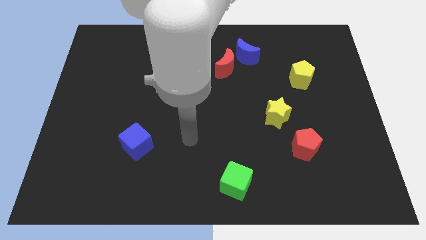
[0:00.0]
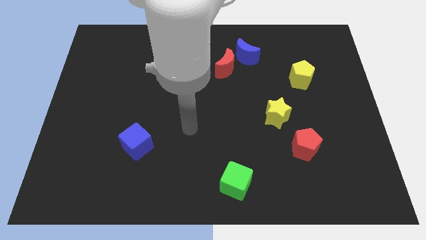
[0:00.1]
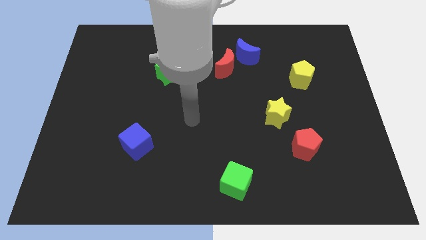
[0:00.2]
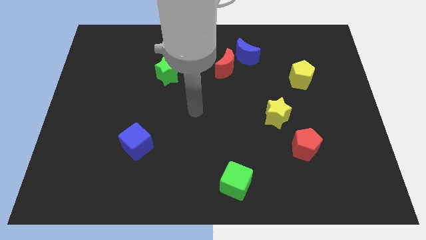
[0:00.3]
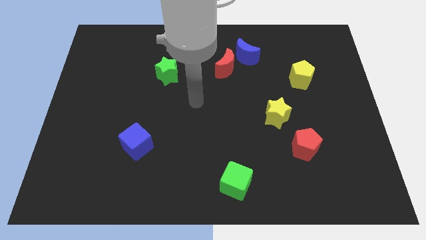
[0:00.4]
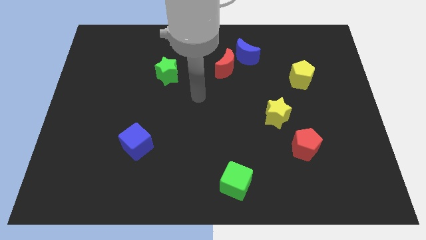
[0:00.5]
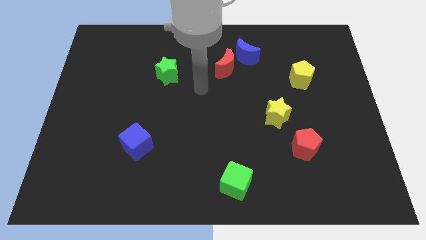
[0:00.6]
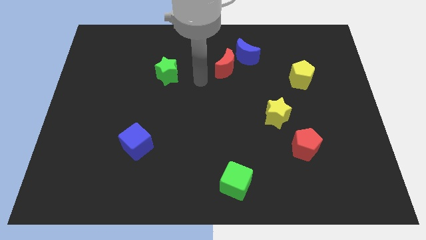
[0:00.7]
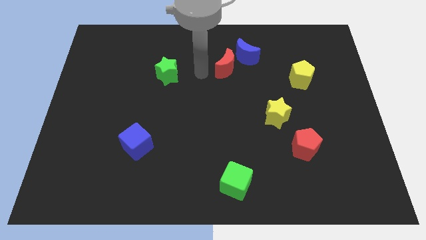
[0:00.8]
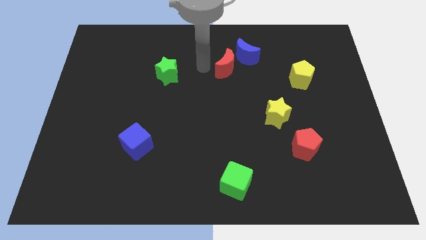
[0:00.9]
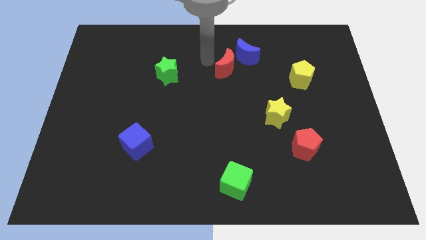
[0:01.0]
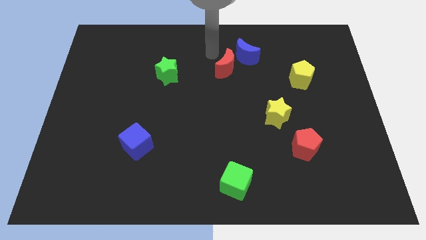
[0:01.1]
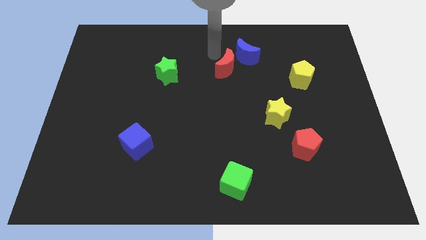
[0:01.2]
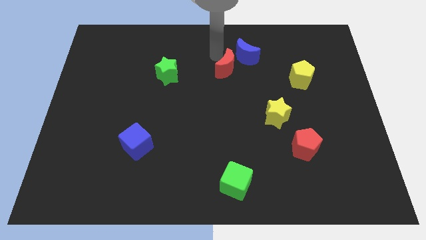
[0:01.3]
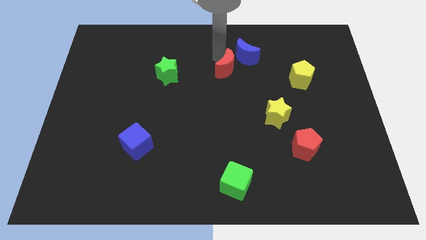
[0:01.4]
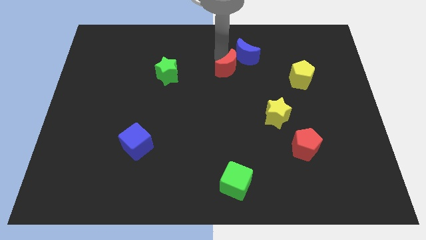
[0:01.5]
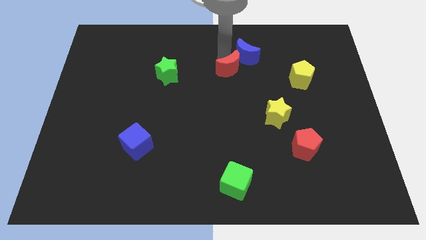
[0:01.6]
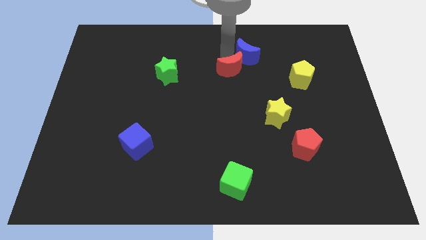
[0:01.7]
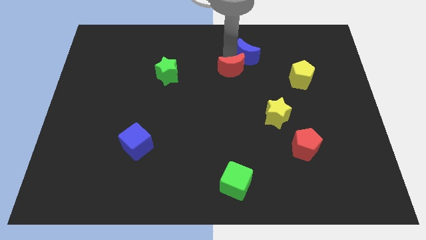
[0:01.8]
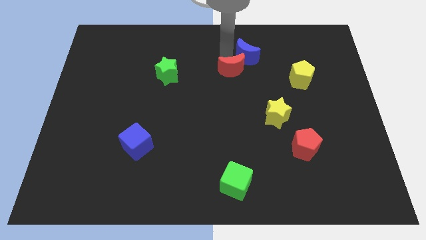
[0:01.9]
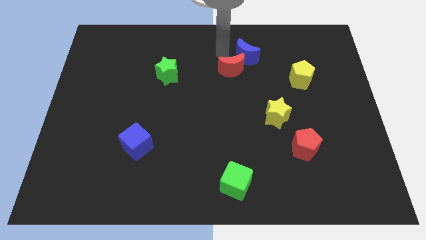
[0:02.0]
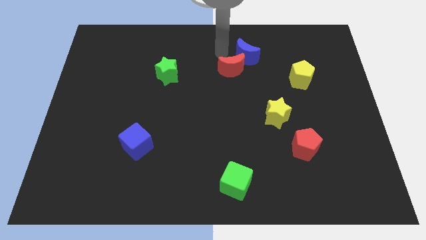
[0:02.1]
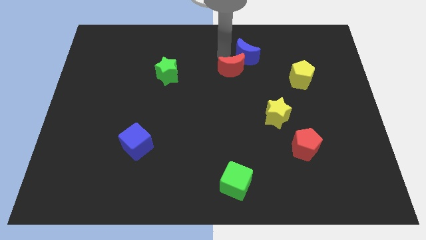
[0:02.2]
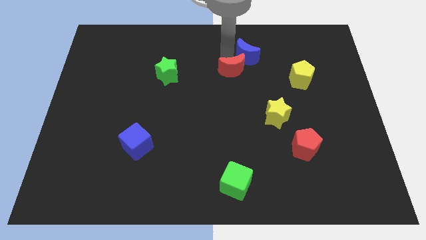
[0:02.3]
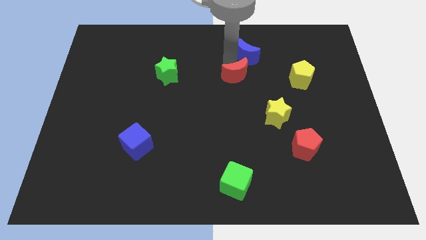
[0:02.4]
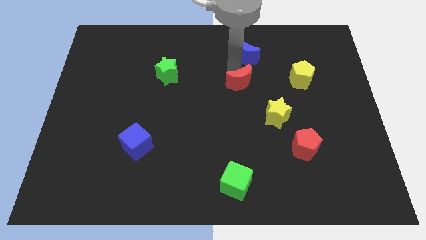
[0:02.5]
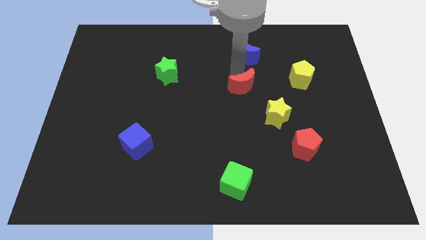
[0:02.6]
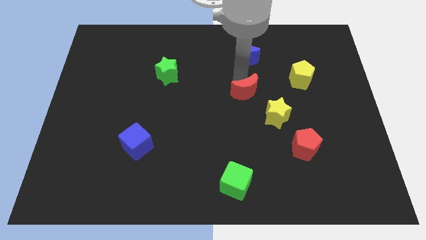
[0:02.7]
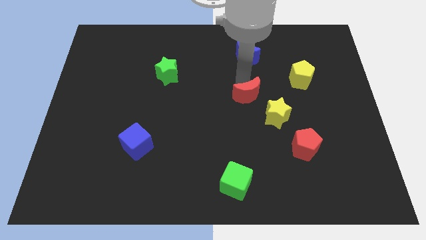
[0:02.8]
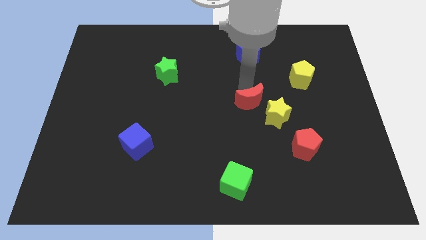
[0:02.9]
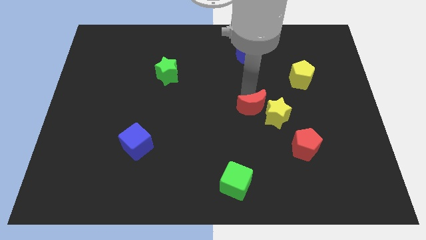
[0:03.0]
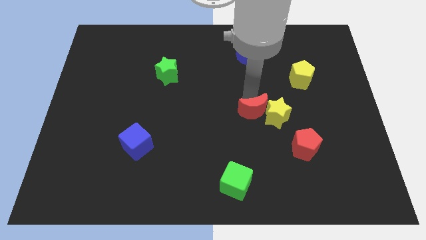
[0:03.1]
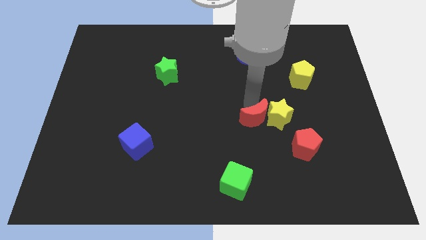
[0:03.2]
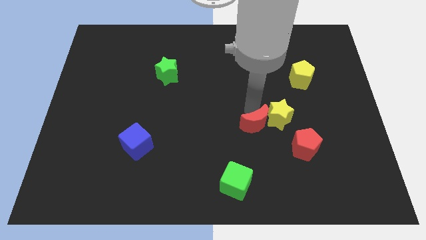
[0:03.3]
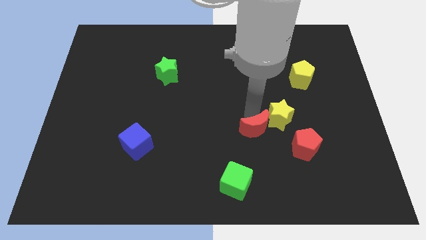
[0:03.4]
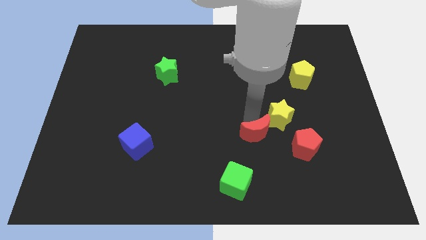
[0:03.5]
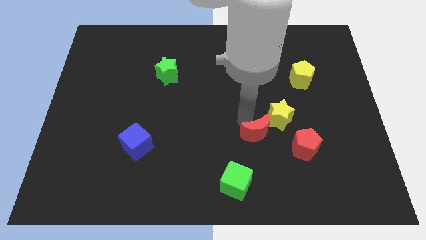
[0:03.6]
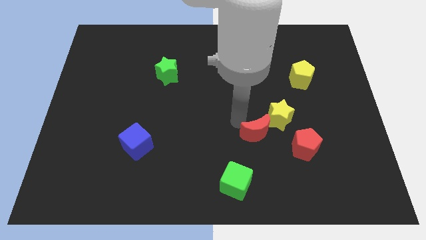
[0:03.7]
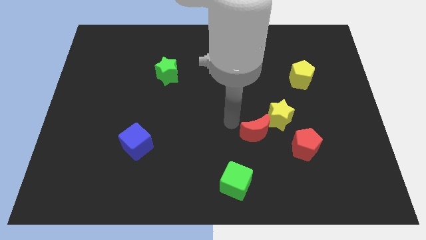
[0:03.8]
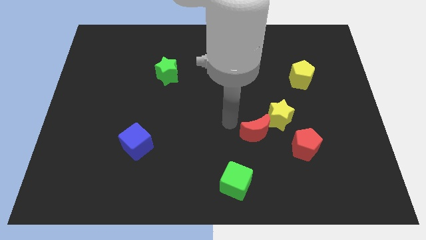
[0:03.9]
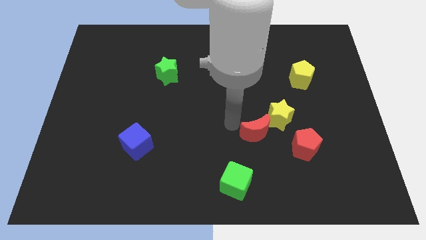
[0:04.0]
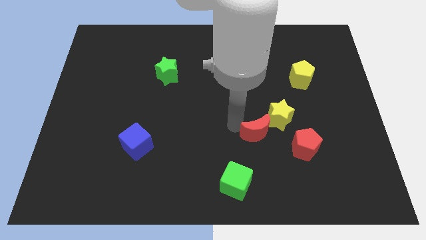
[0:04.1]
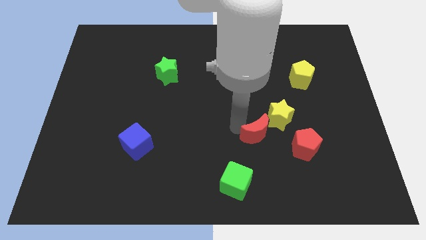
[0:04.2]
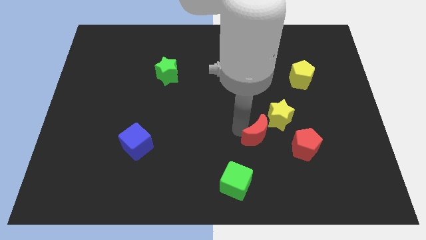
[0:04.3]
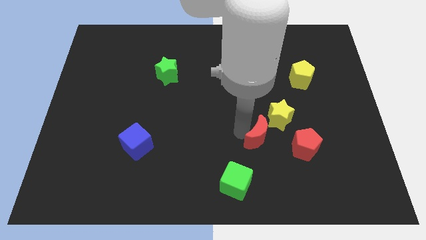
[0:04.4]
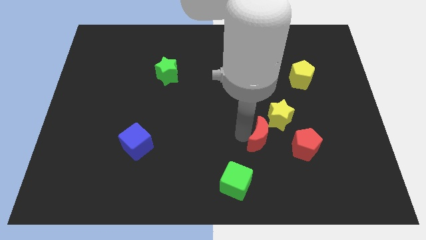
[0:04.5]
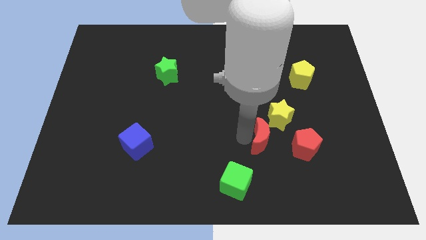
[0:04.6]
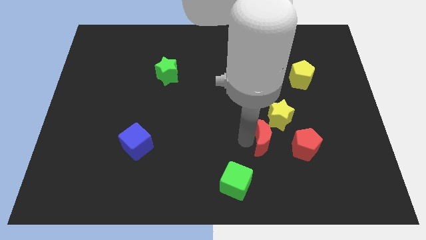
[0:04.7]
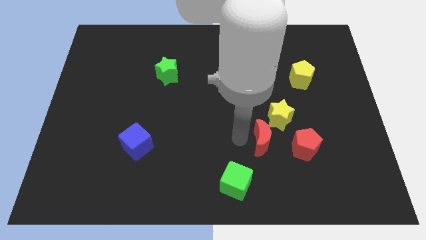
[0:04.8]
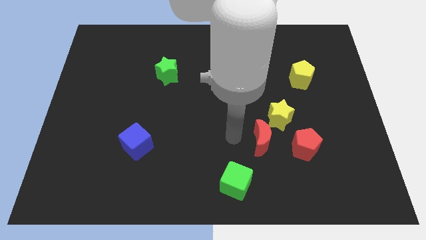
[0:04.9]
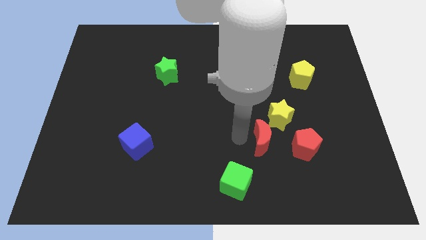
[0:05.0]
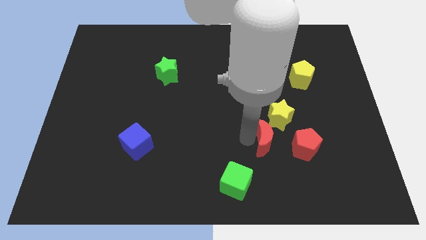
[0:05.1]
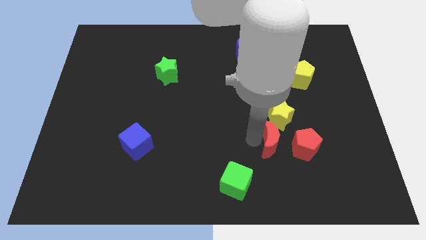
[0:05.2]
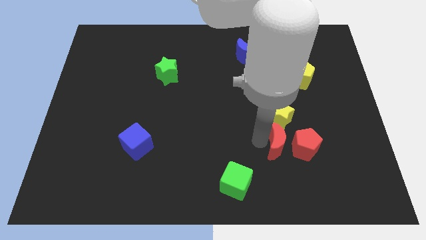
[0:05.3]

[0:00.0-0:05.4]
put the red moon to the red pentagon

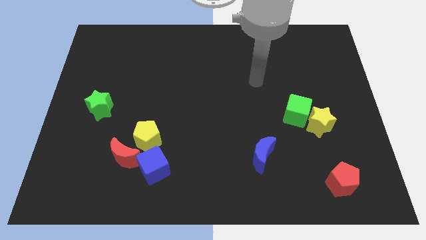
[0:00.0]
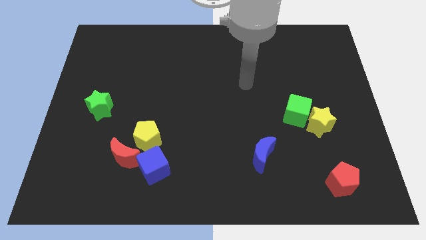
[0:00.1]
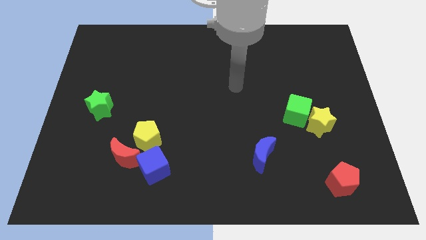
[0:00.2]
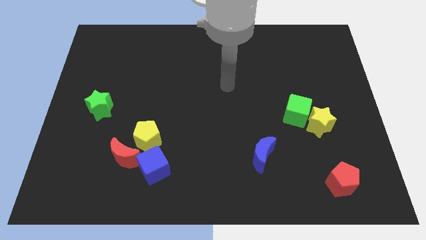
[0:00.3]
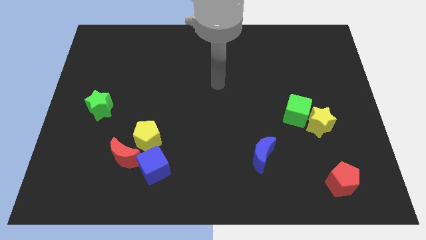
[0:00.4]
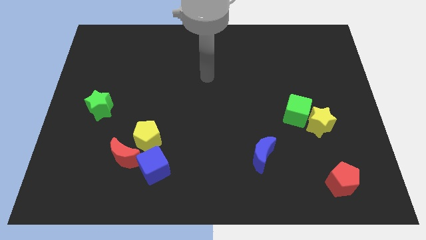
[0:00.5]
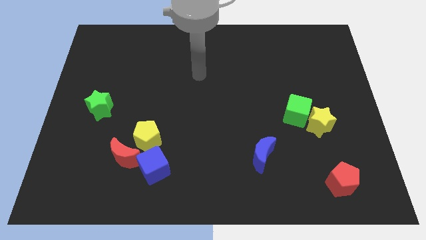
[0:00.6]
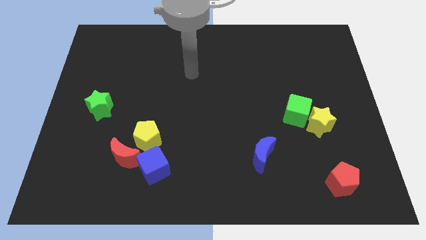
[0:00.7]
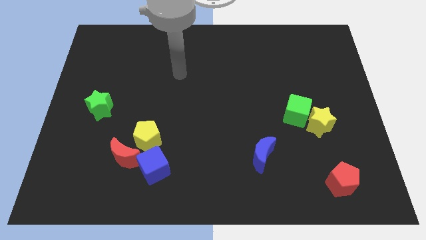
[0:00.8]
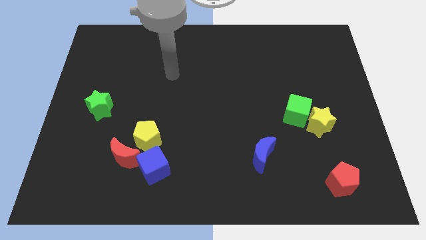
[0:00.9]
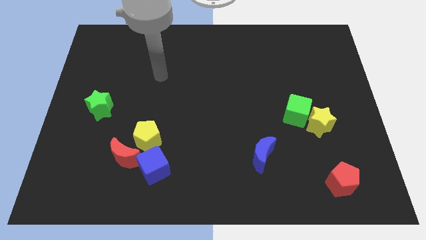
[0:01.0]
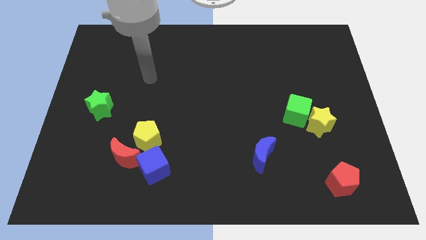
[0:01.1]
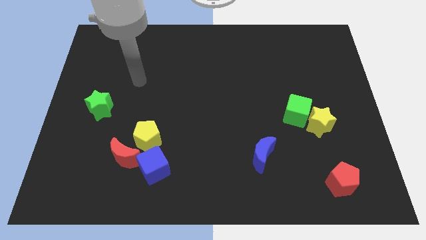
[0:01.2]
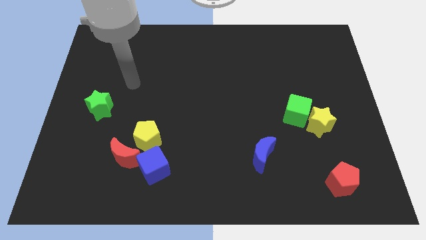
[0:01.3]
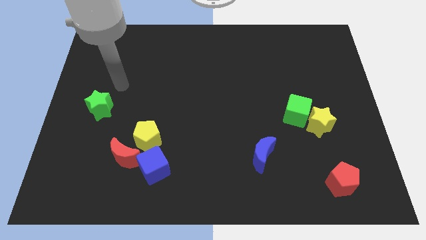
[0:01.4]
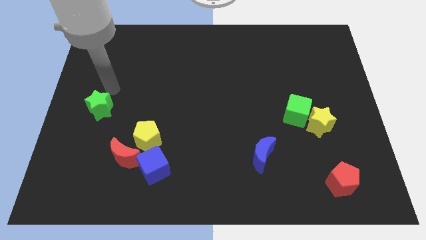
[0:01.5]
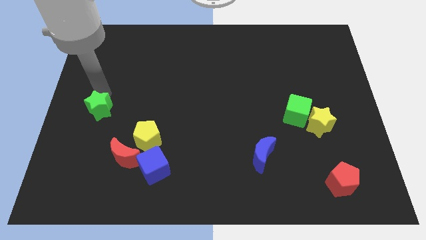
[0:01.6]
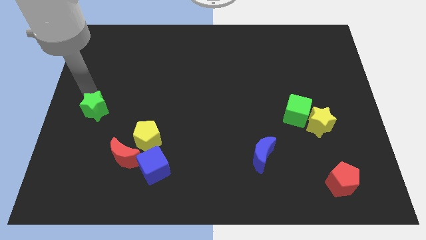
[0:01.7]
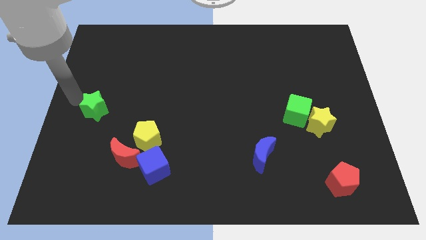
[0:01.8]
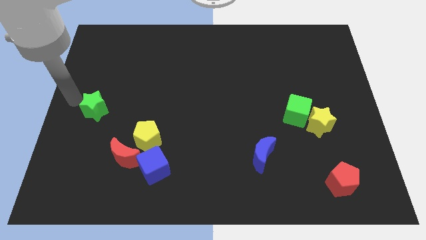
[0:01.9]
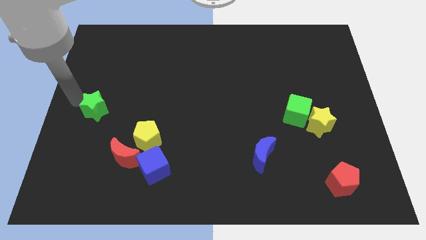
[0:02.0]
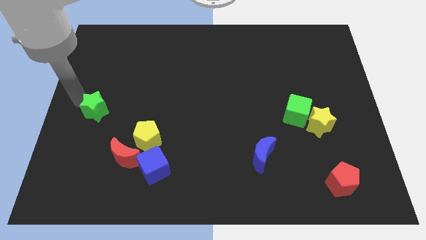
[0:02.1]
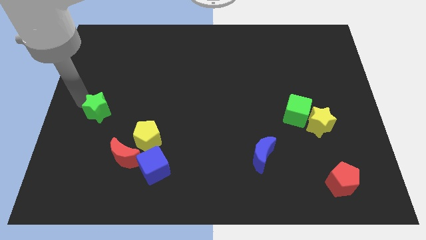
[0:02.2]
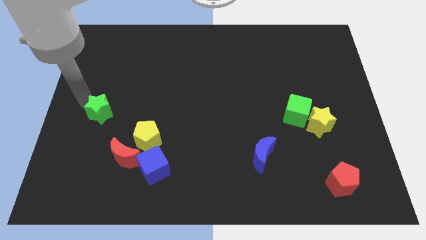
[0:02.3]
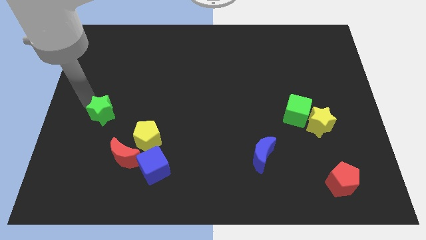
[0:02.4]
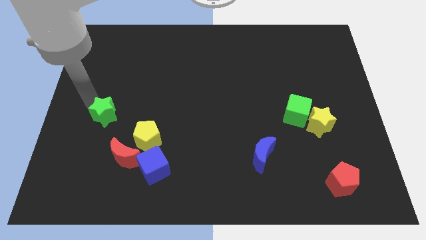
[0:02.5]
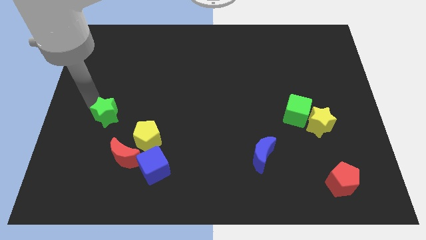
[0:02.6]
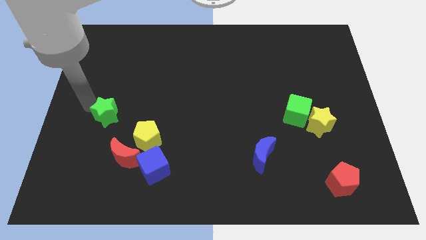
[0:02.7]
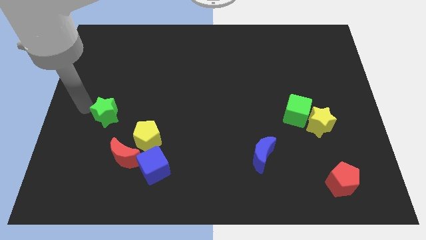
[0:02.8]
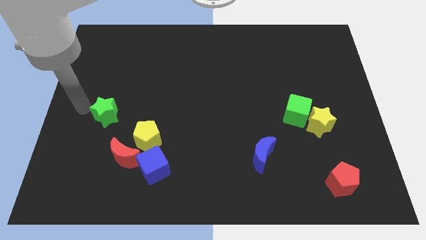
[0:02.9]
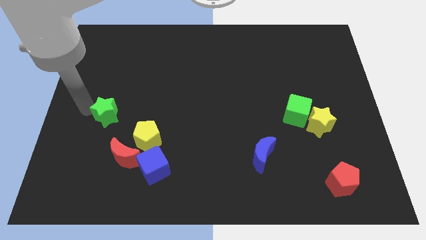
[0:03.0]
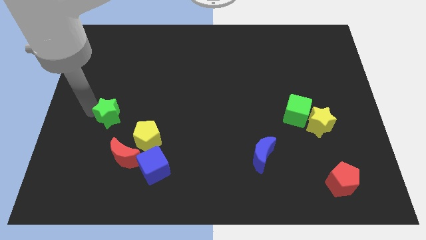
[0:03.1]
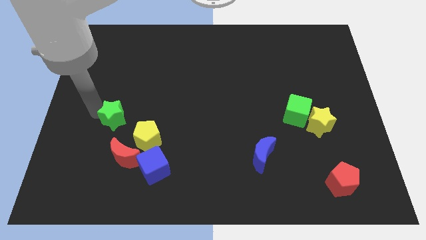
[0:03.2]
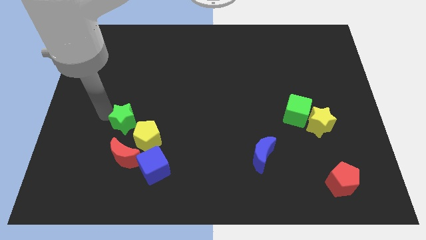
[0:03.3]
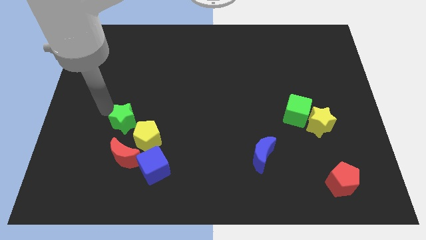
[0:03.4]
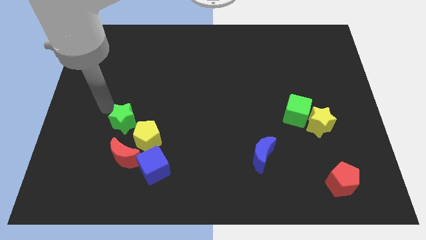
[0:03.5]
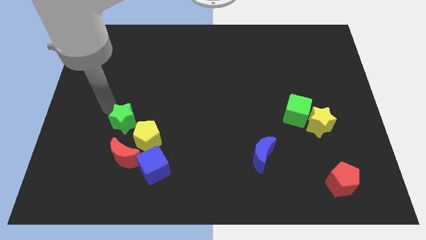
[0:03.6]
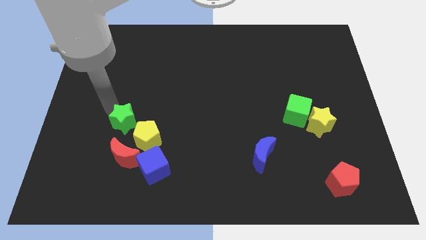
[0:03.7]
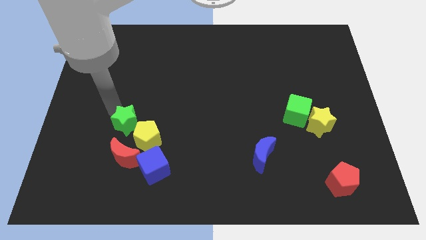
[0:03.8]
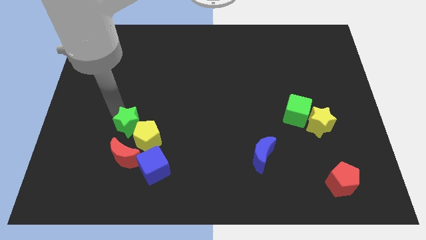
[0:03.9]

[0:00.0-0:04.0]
put the green star close to the yellow pentagon
